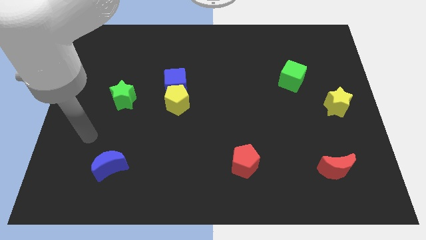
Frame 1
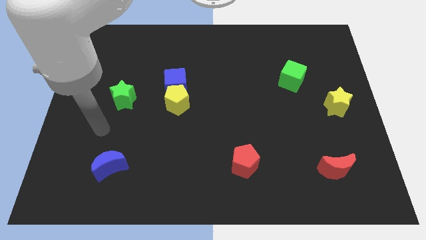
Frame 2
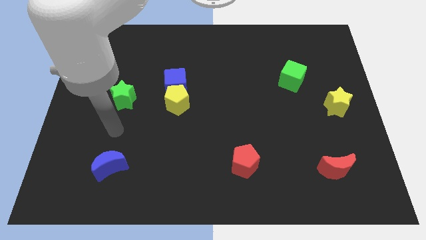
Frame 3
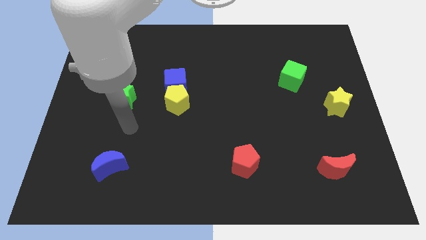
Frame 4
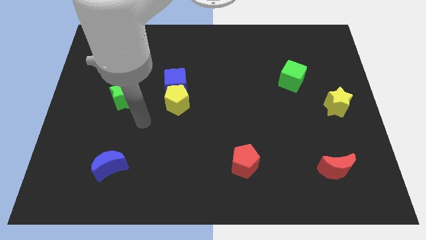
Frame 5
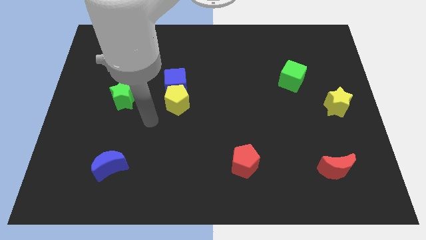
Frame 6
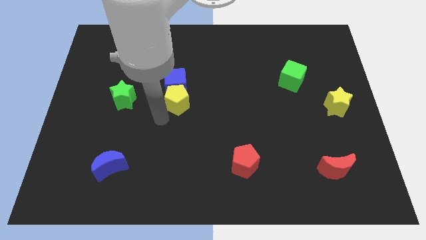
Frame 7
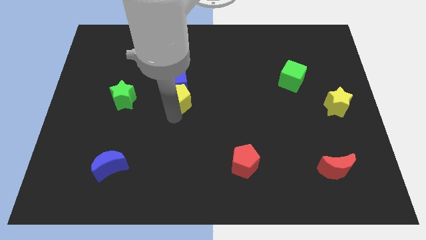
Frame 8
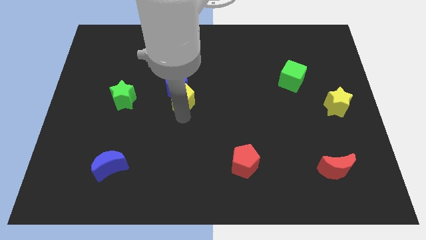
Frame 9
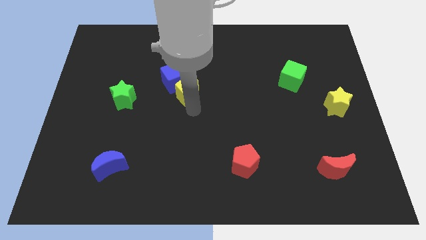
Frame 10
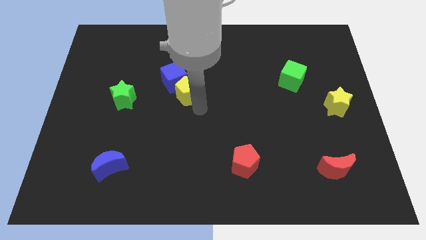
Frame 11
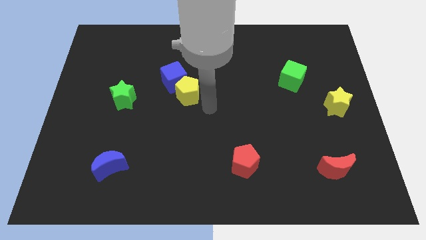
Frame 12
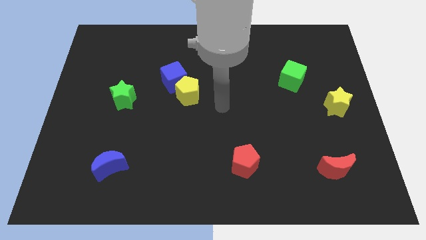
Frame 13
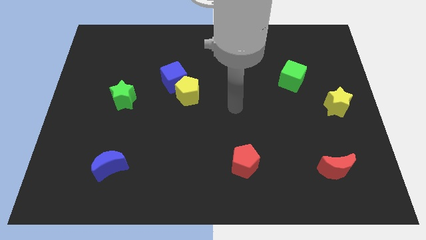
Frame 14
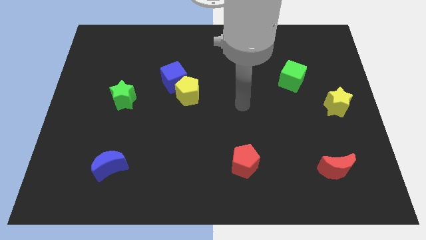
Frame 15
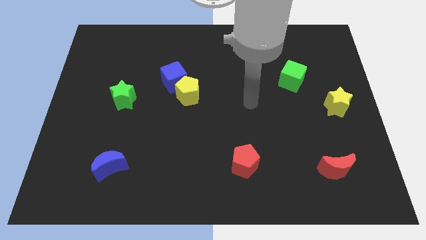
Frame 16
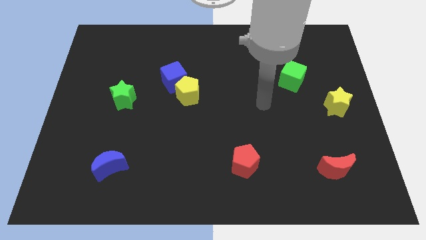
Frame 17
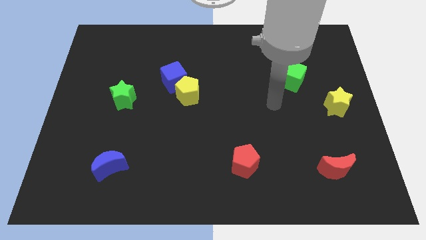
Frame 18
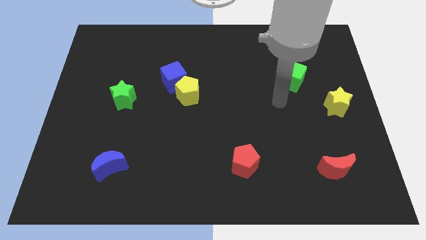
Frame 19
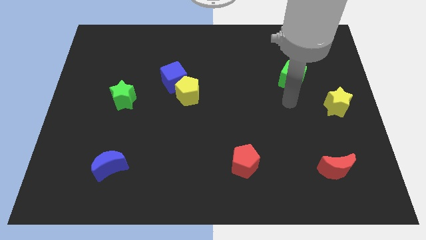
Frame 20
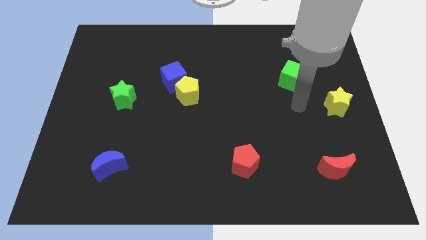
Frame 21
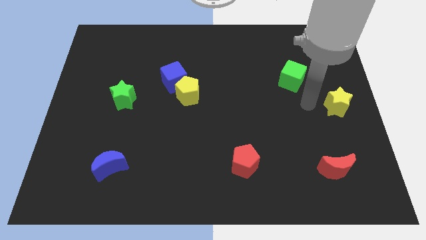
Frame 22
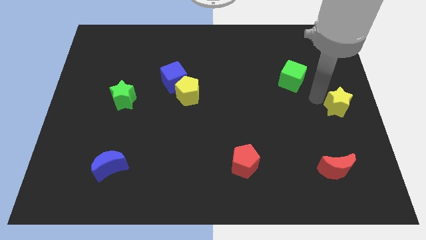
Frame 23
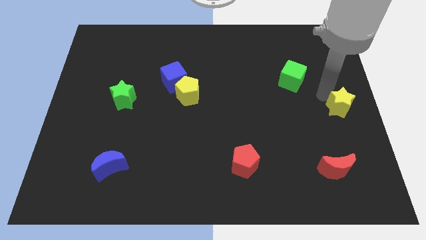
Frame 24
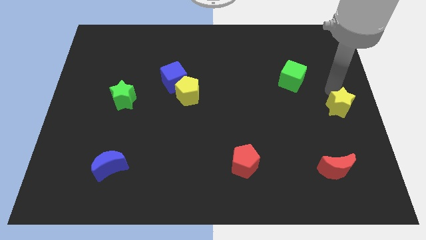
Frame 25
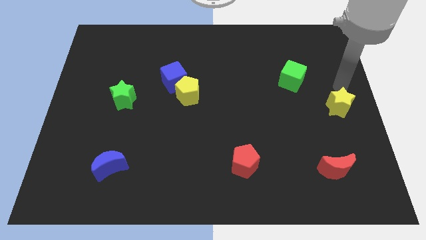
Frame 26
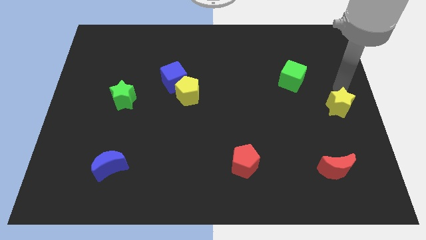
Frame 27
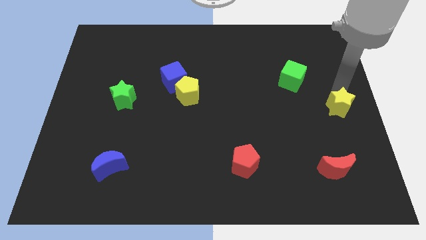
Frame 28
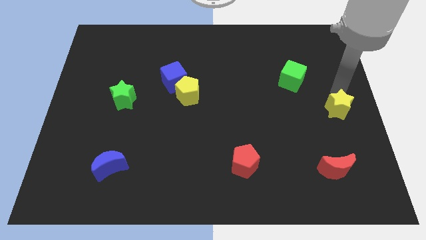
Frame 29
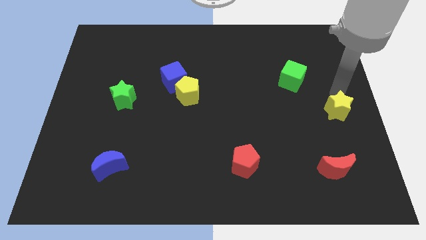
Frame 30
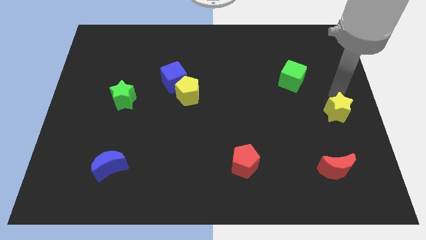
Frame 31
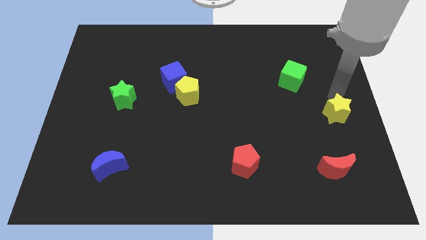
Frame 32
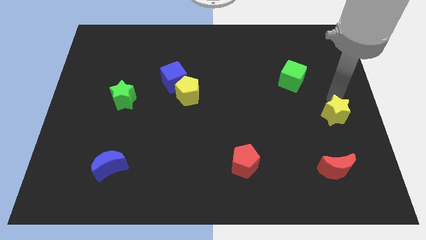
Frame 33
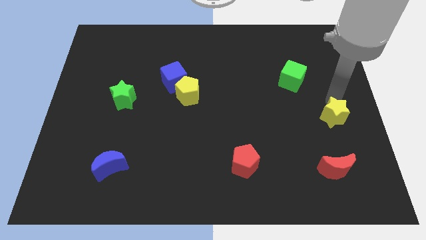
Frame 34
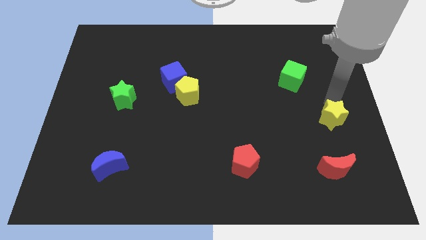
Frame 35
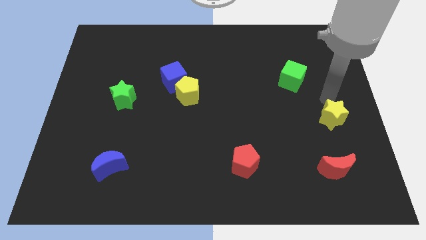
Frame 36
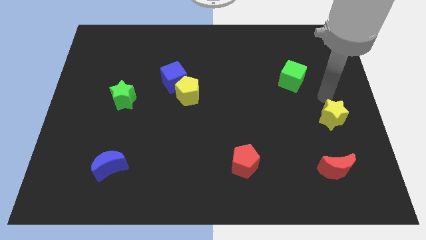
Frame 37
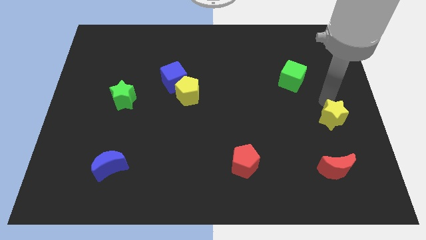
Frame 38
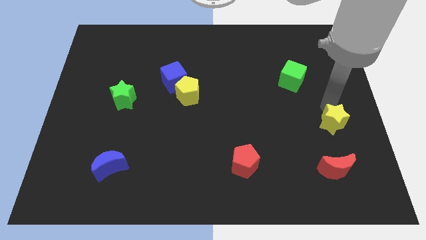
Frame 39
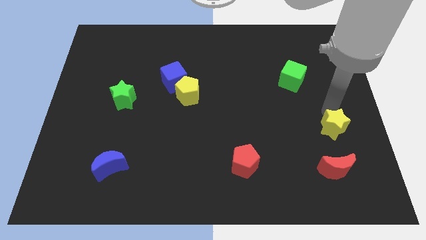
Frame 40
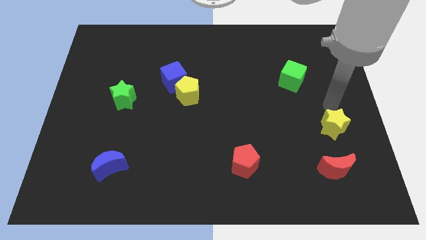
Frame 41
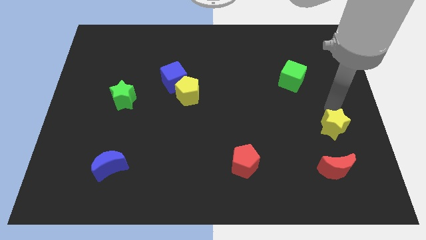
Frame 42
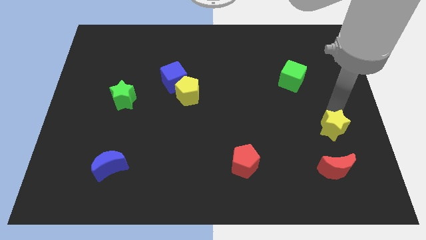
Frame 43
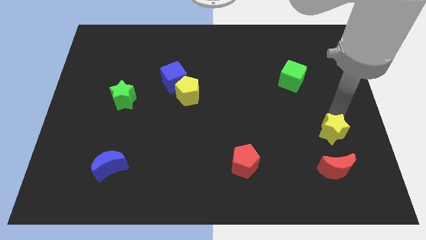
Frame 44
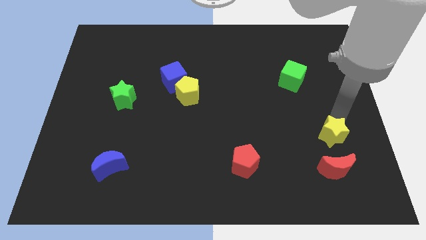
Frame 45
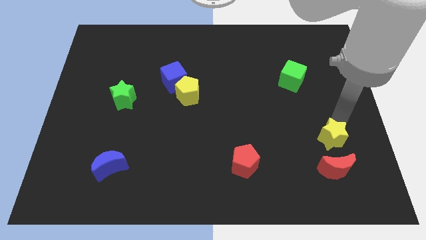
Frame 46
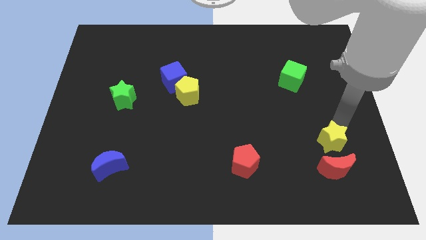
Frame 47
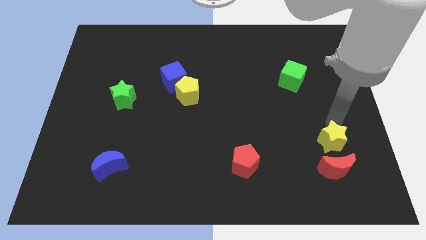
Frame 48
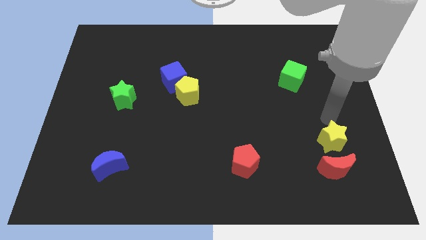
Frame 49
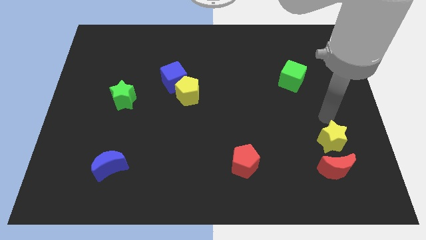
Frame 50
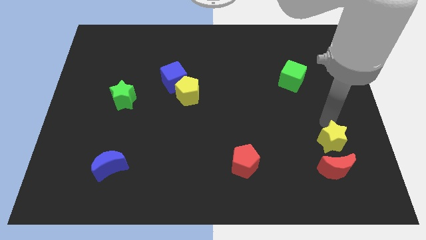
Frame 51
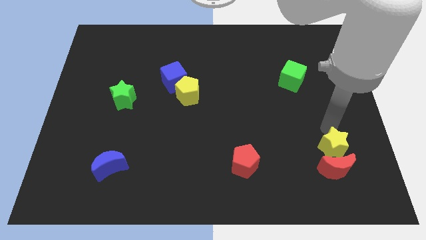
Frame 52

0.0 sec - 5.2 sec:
move the yellow star next to the red moon

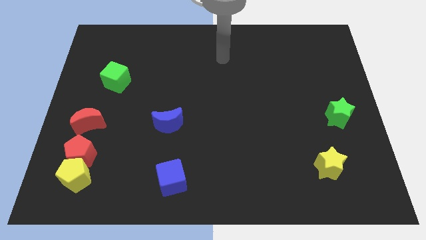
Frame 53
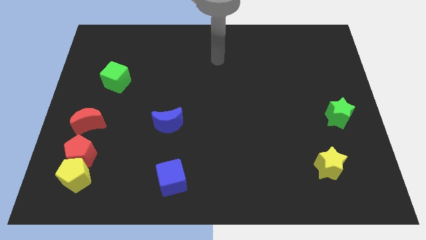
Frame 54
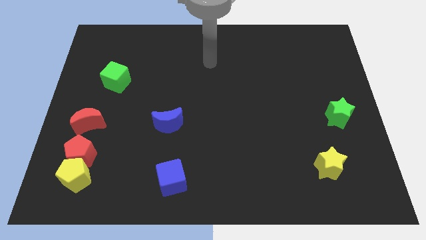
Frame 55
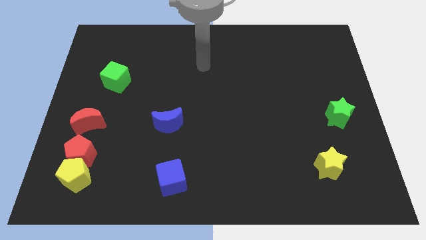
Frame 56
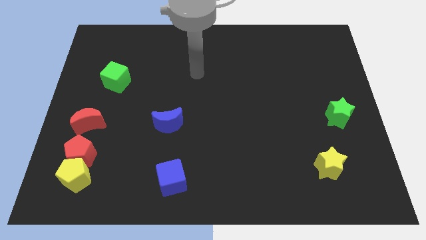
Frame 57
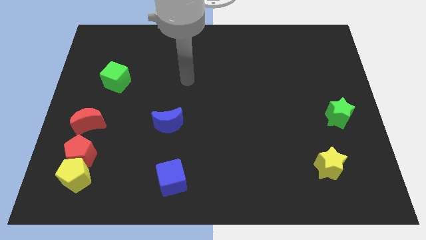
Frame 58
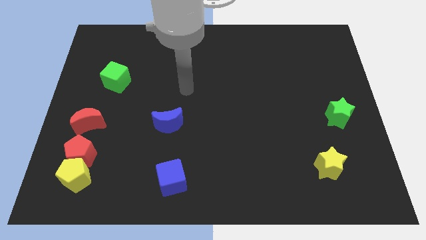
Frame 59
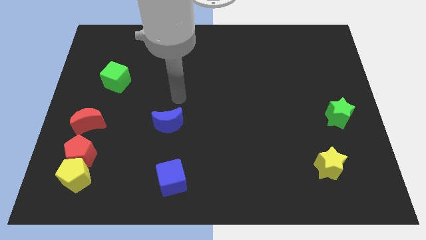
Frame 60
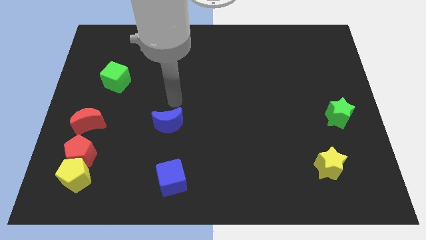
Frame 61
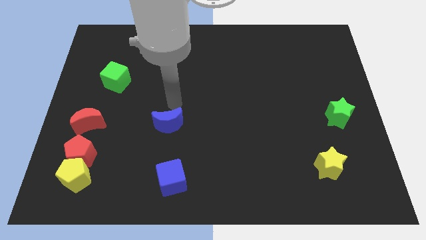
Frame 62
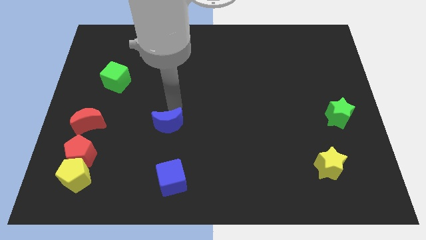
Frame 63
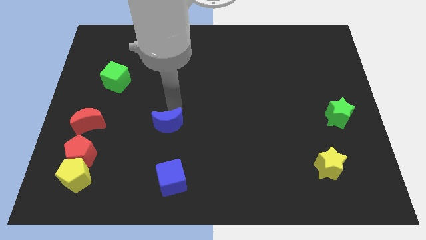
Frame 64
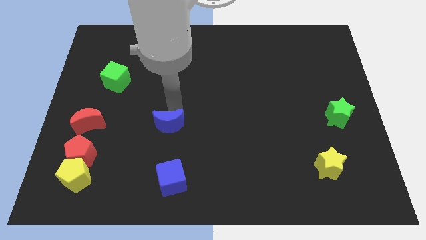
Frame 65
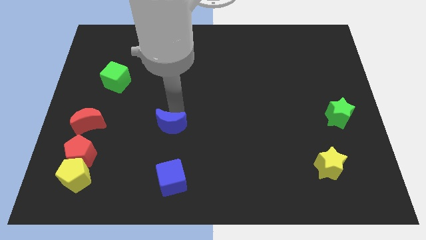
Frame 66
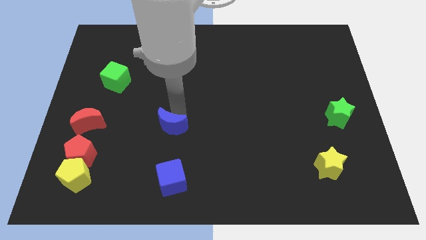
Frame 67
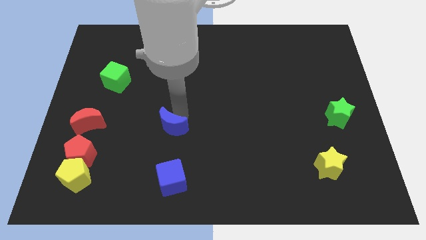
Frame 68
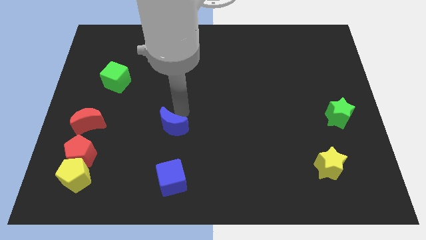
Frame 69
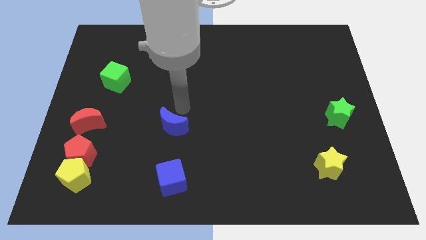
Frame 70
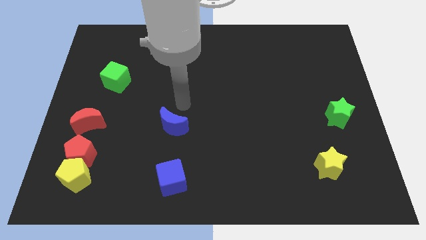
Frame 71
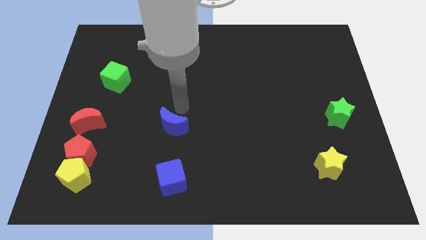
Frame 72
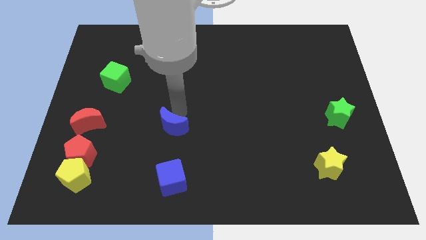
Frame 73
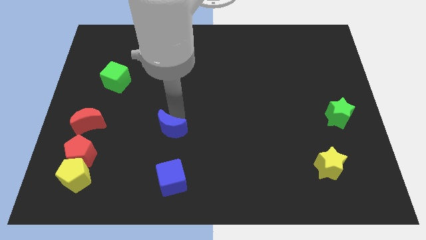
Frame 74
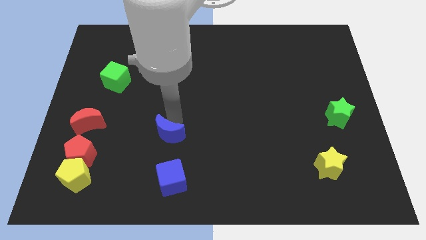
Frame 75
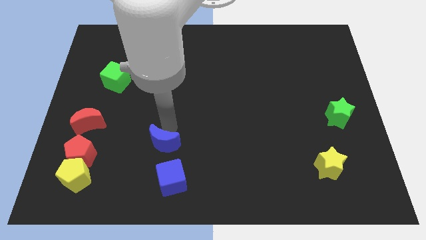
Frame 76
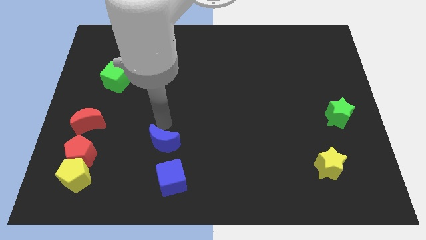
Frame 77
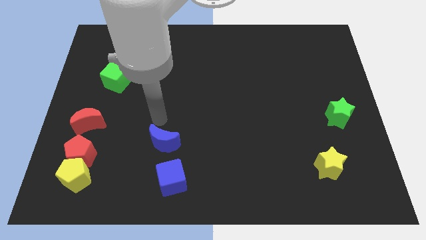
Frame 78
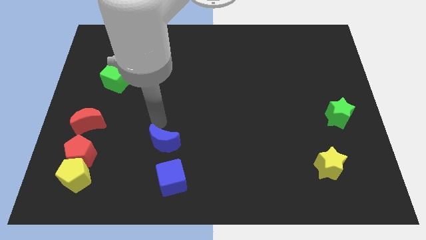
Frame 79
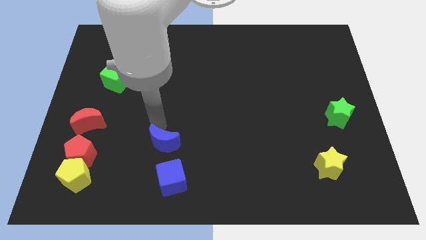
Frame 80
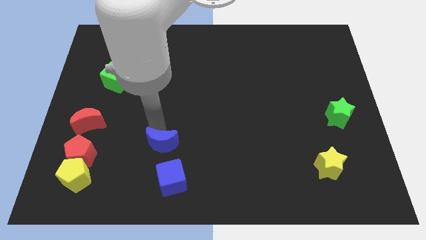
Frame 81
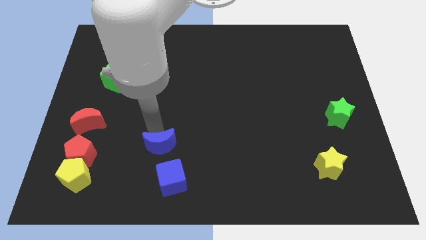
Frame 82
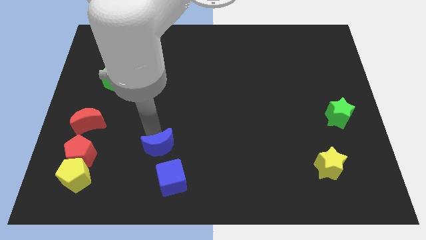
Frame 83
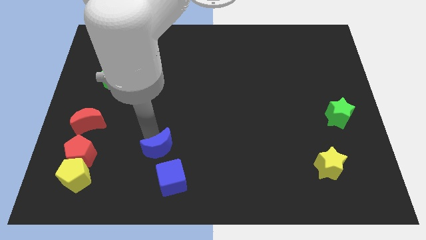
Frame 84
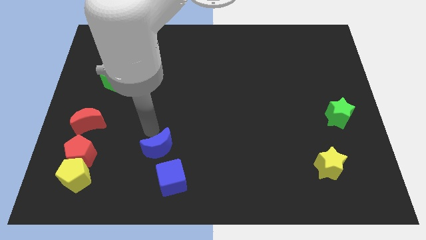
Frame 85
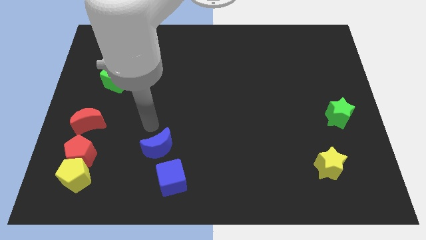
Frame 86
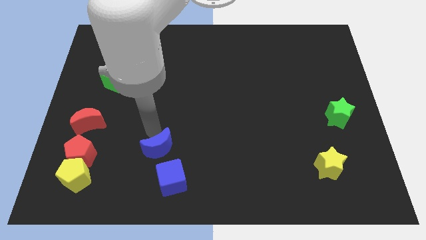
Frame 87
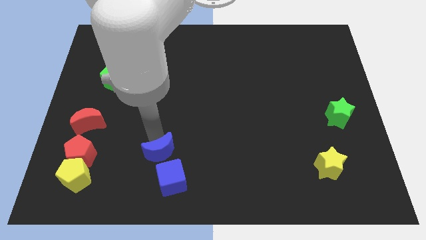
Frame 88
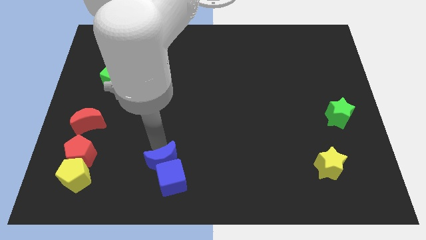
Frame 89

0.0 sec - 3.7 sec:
move the blue moon next to the blue cube
